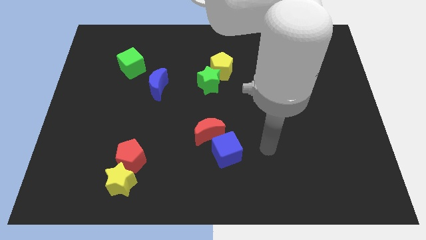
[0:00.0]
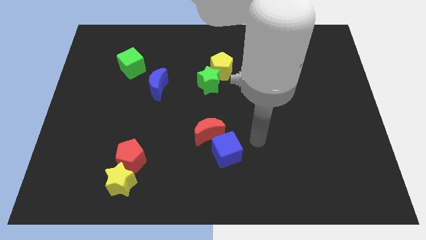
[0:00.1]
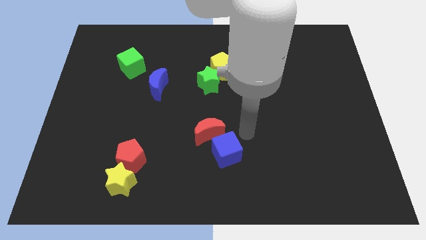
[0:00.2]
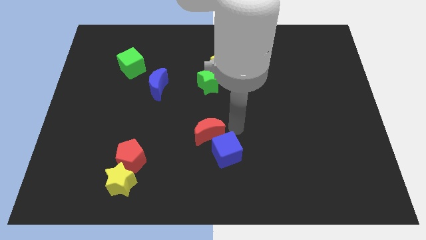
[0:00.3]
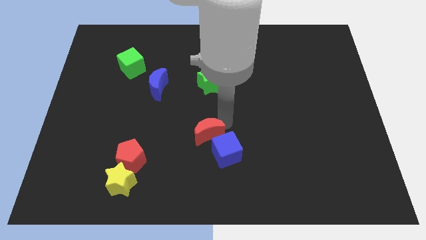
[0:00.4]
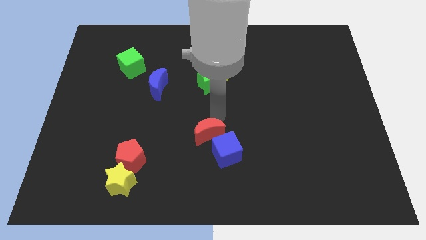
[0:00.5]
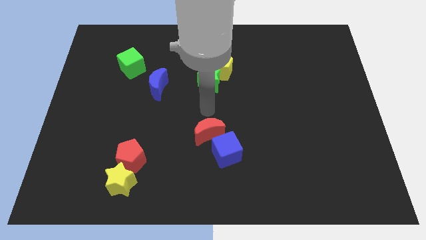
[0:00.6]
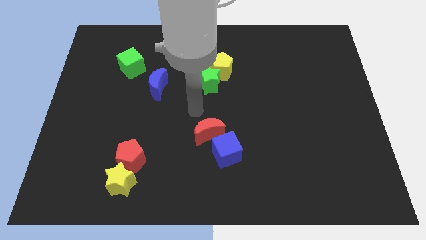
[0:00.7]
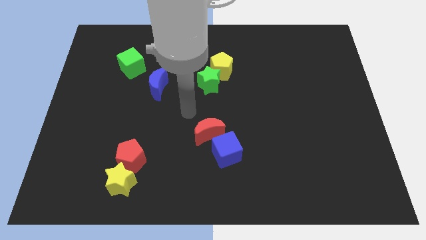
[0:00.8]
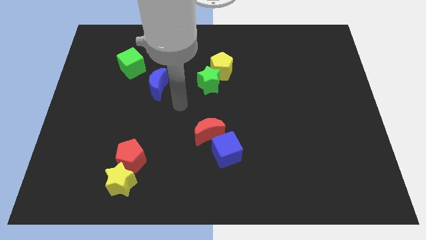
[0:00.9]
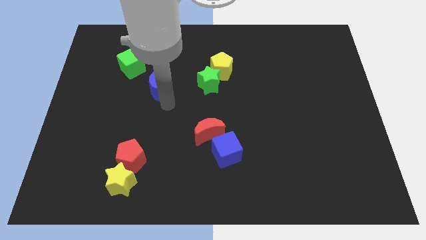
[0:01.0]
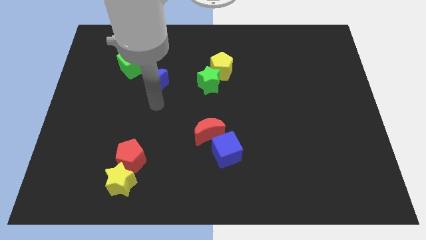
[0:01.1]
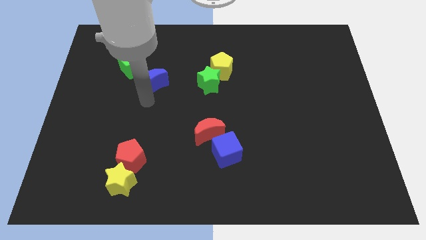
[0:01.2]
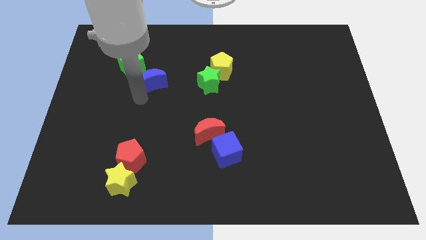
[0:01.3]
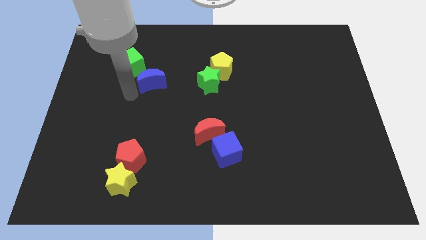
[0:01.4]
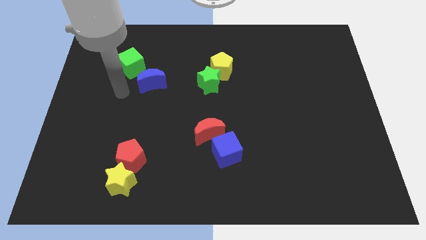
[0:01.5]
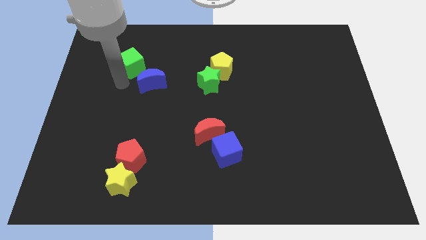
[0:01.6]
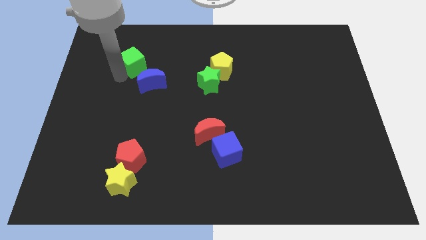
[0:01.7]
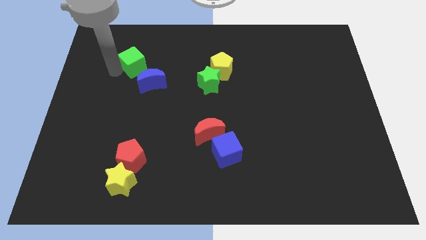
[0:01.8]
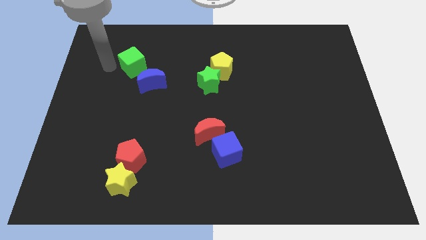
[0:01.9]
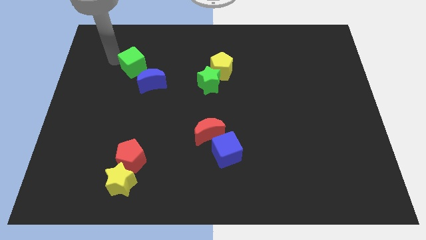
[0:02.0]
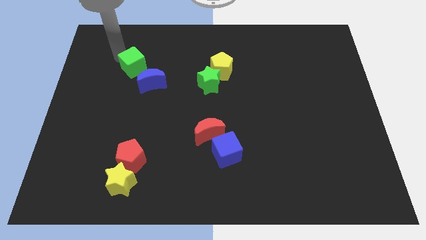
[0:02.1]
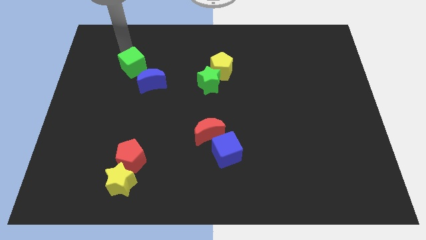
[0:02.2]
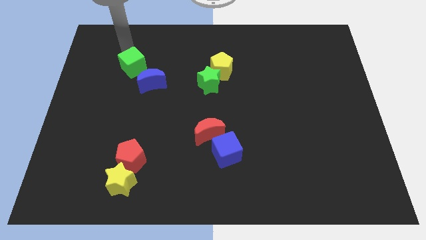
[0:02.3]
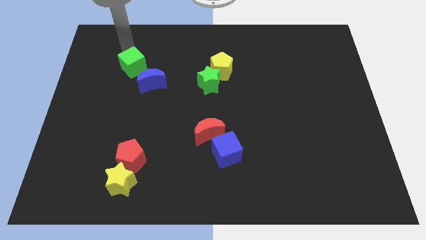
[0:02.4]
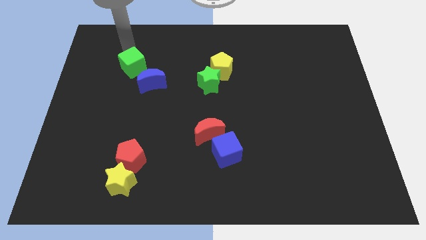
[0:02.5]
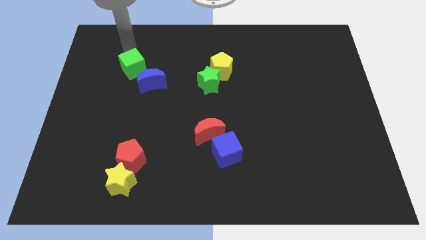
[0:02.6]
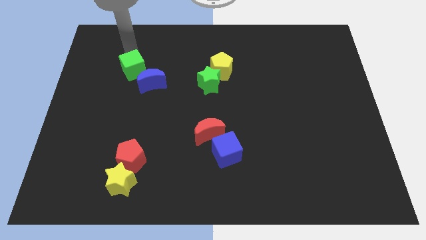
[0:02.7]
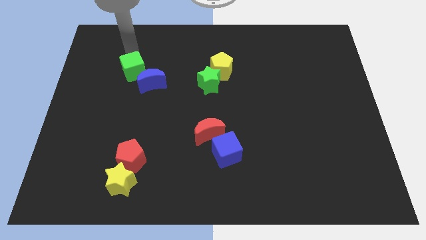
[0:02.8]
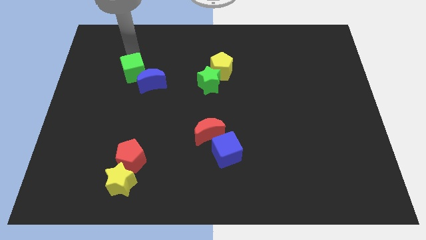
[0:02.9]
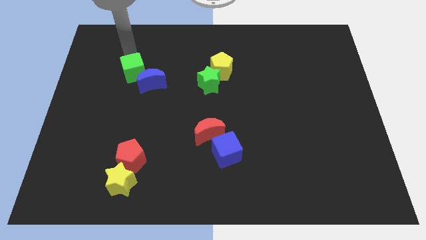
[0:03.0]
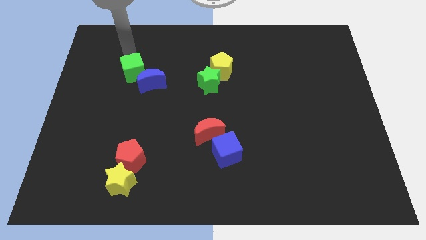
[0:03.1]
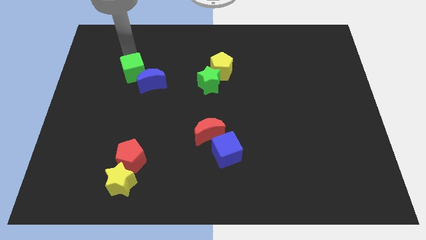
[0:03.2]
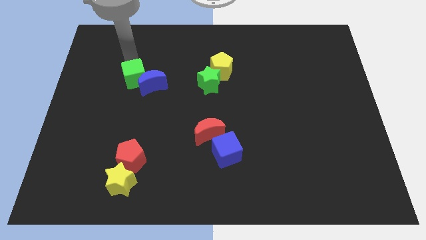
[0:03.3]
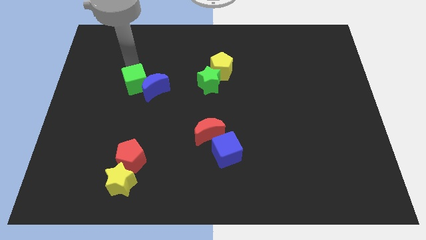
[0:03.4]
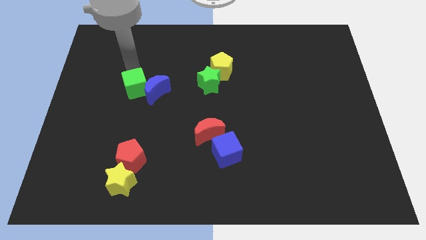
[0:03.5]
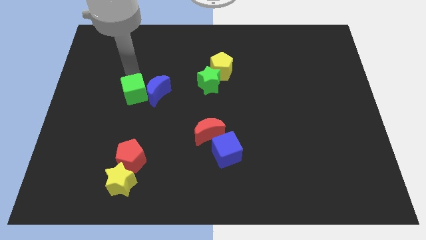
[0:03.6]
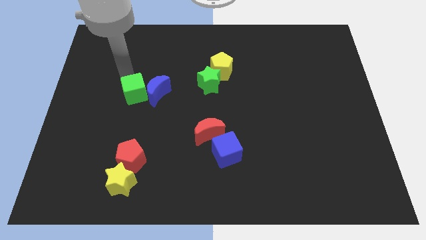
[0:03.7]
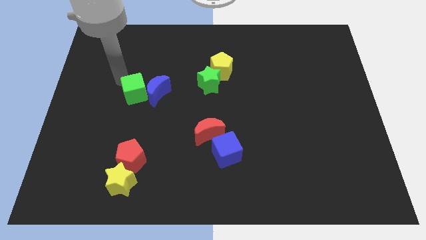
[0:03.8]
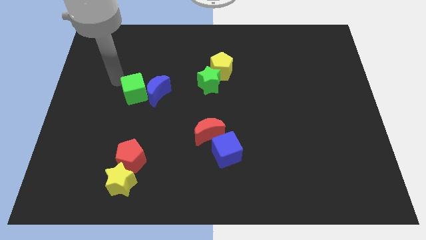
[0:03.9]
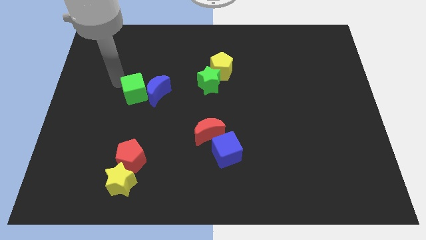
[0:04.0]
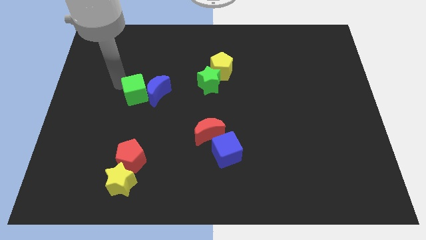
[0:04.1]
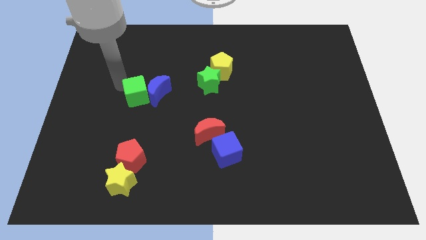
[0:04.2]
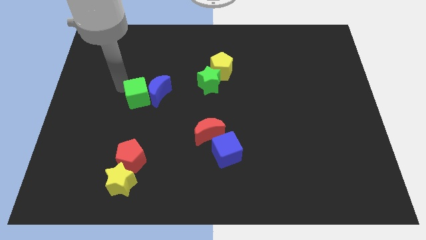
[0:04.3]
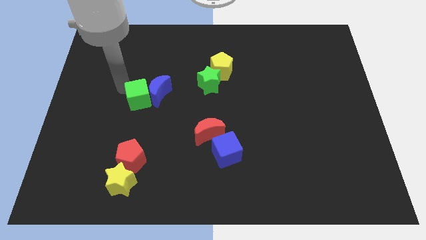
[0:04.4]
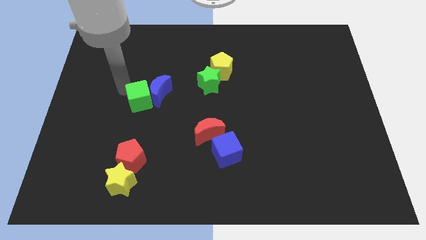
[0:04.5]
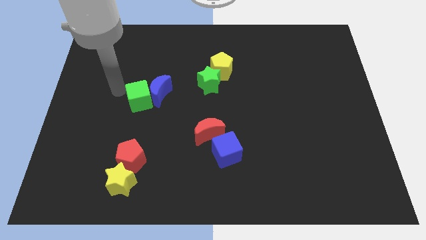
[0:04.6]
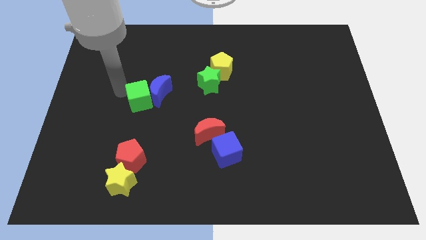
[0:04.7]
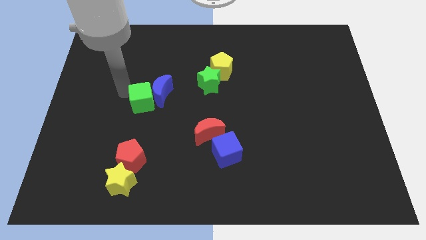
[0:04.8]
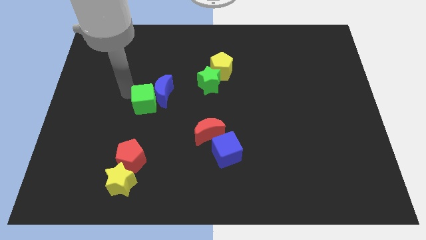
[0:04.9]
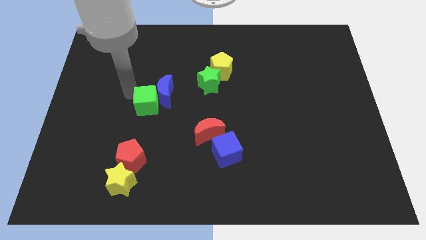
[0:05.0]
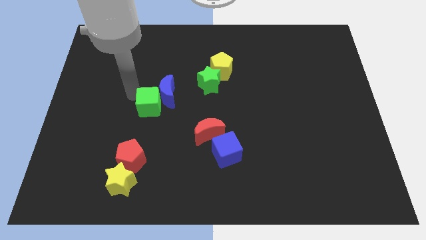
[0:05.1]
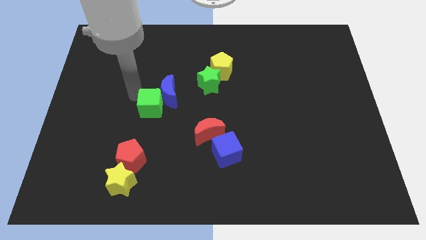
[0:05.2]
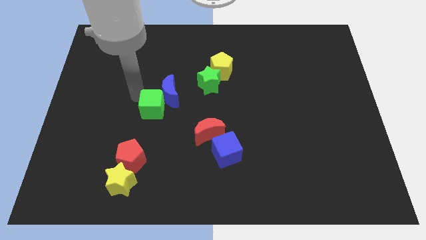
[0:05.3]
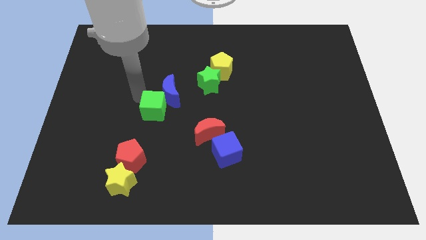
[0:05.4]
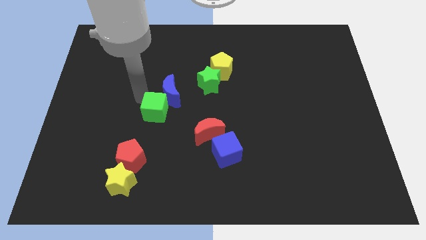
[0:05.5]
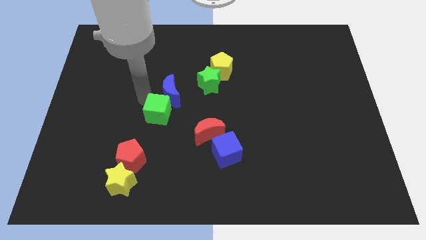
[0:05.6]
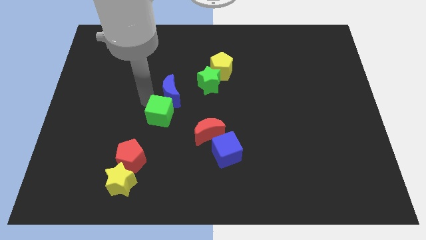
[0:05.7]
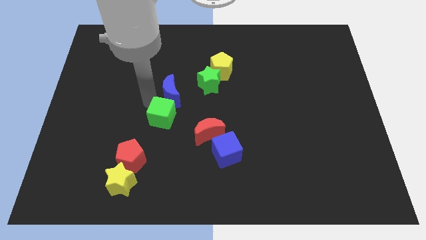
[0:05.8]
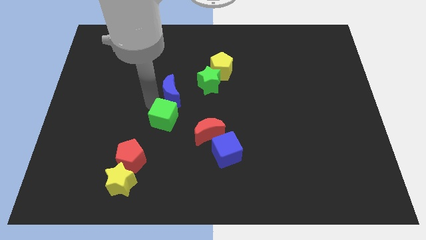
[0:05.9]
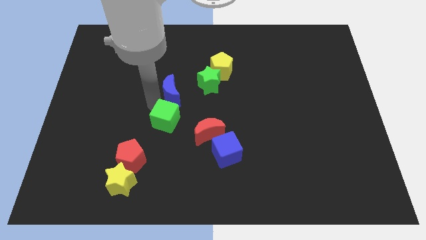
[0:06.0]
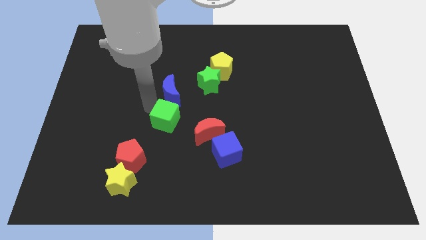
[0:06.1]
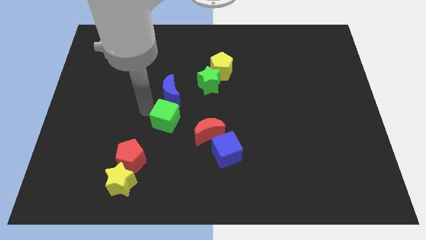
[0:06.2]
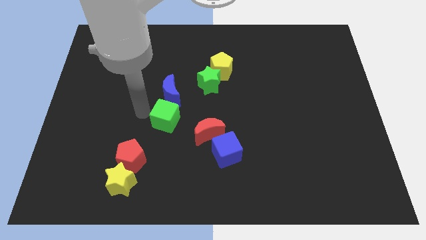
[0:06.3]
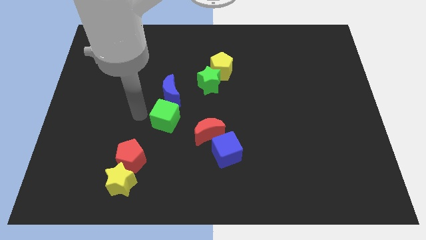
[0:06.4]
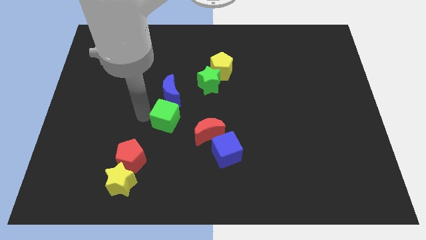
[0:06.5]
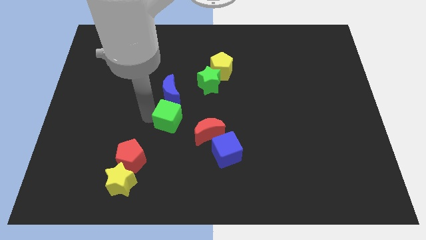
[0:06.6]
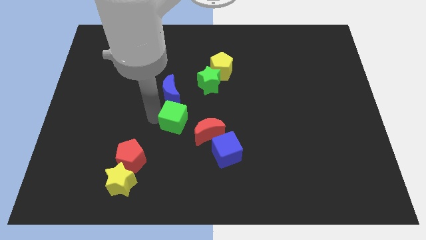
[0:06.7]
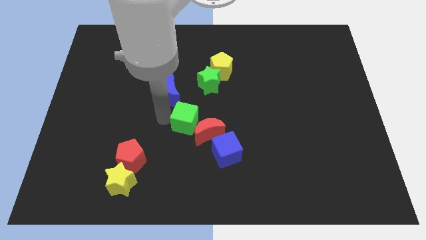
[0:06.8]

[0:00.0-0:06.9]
slide the green cube to the red moon

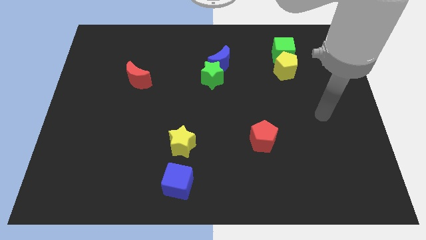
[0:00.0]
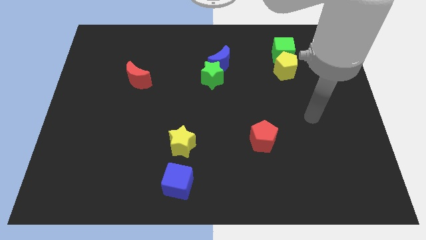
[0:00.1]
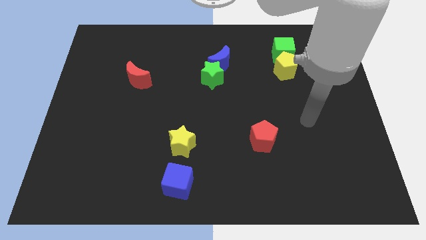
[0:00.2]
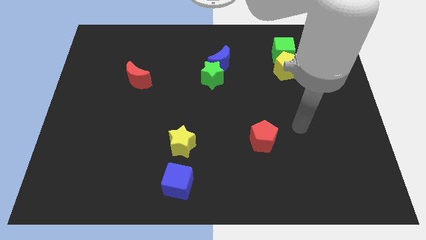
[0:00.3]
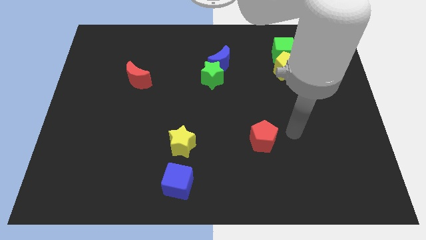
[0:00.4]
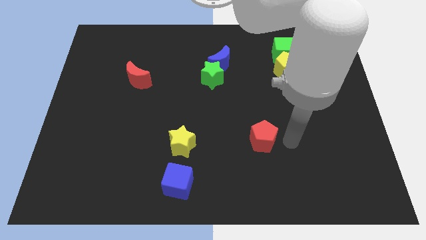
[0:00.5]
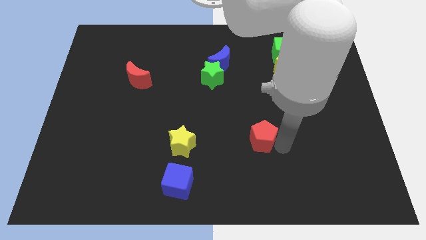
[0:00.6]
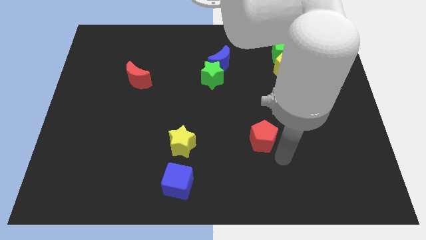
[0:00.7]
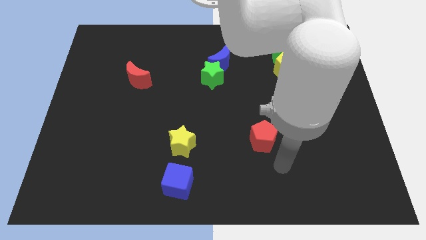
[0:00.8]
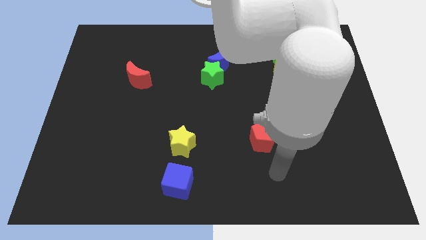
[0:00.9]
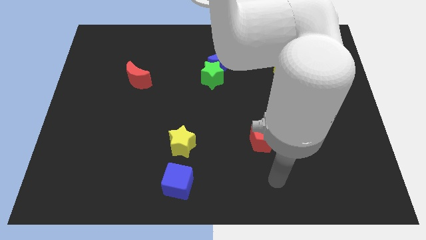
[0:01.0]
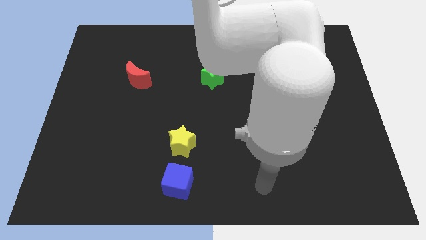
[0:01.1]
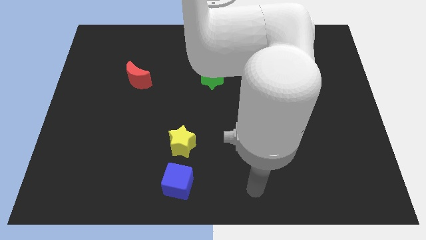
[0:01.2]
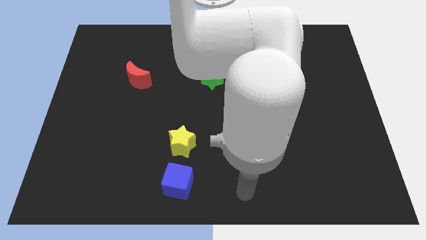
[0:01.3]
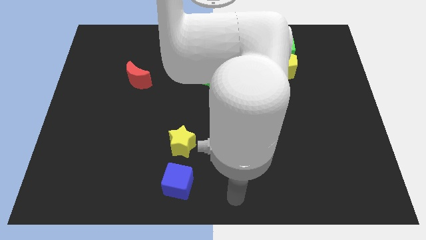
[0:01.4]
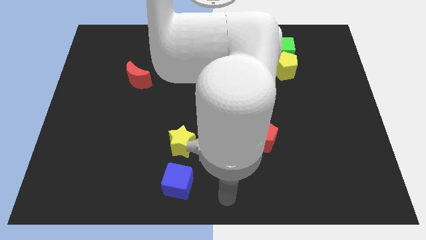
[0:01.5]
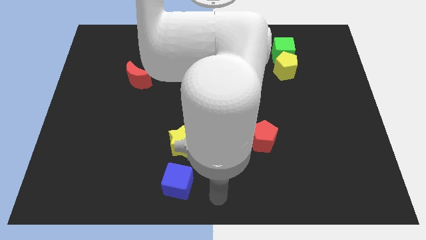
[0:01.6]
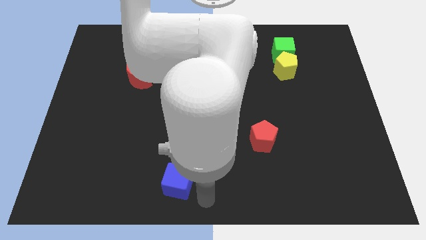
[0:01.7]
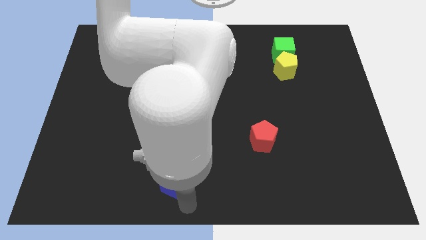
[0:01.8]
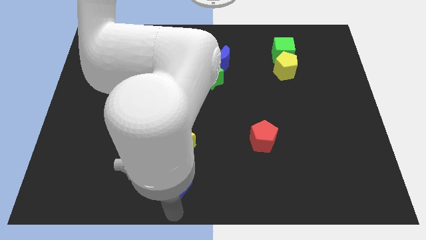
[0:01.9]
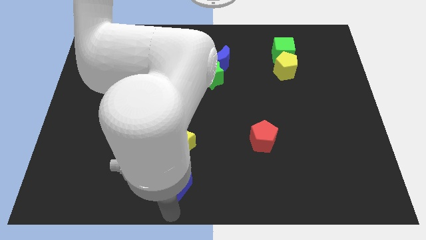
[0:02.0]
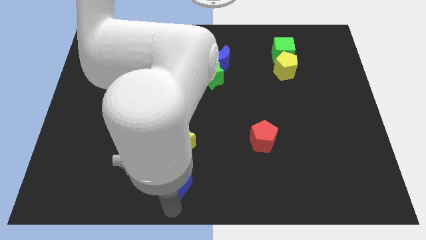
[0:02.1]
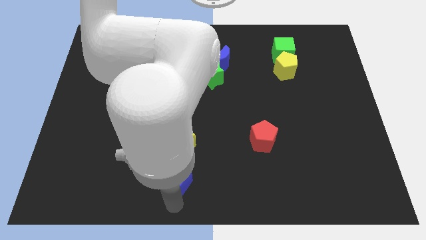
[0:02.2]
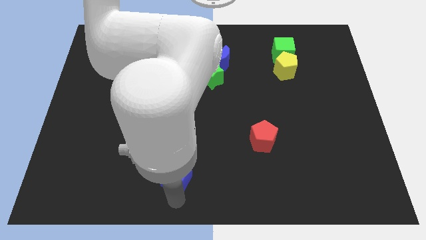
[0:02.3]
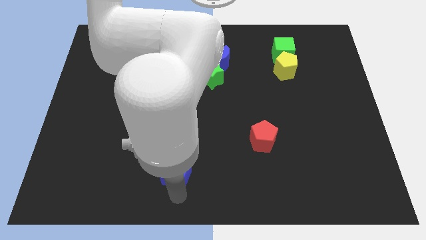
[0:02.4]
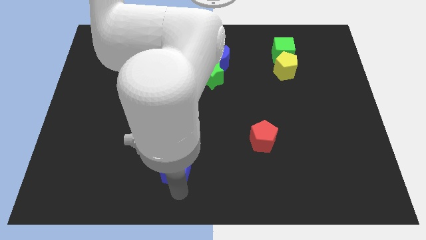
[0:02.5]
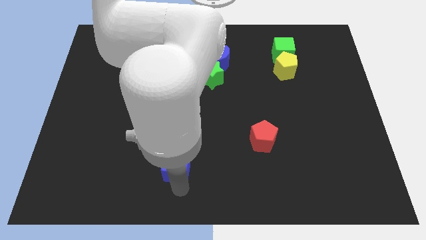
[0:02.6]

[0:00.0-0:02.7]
push the blue cube close to the yellow star
